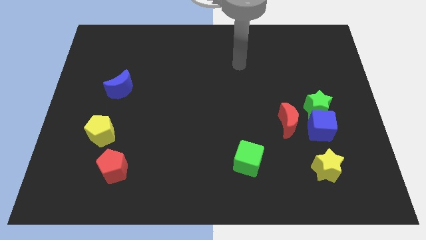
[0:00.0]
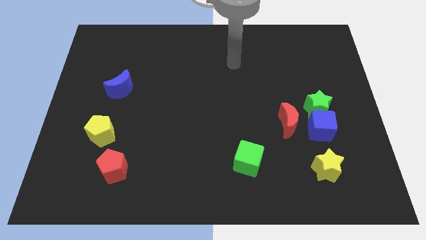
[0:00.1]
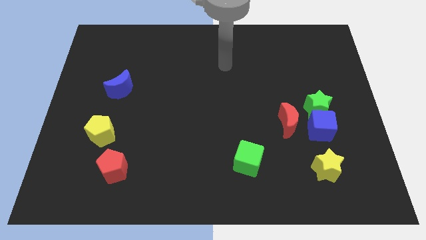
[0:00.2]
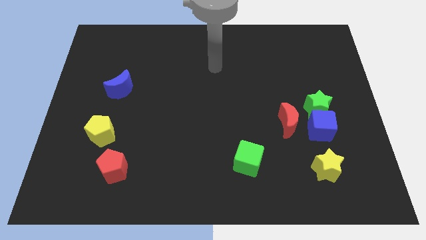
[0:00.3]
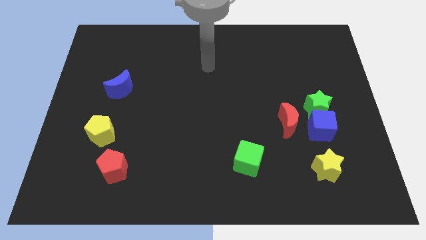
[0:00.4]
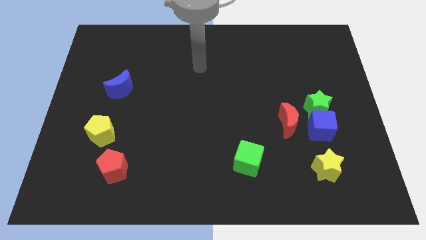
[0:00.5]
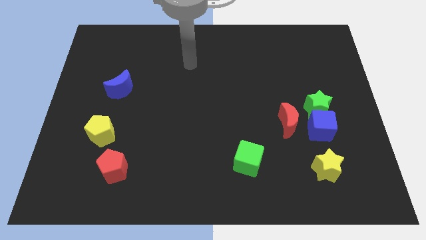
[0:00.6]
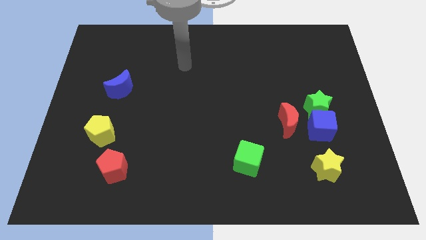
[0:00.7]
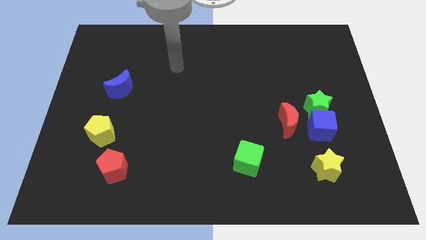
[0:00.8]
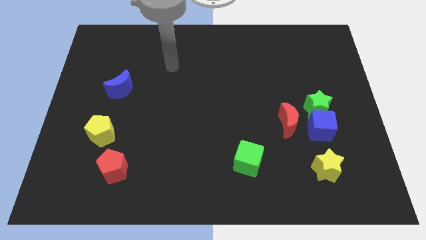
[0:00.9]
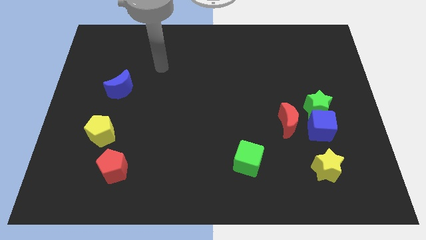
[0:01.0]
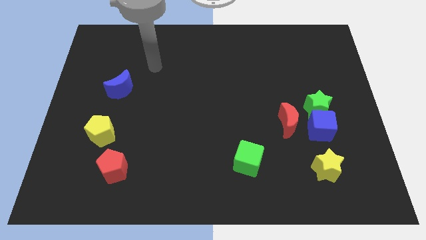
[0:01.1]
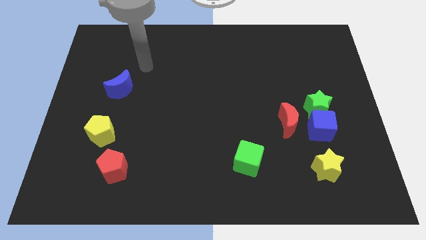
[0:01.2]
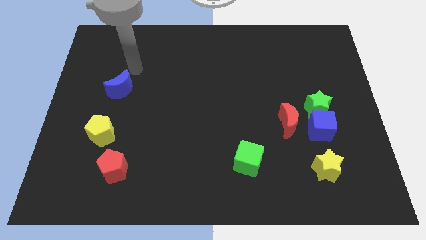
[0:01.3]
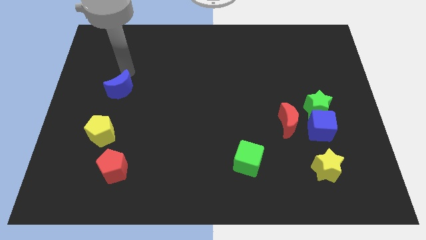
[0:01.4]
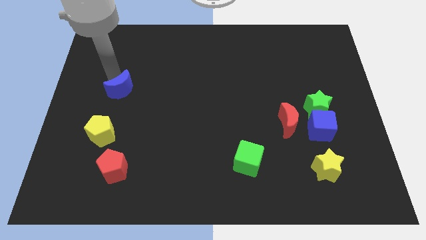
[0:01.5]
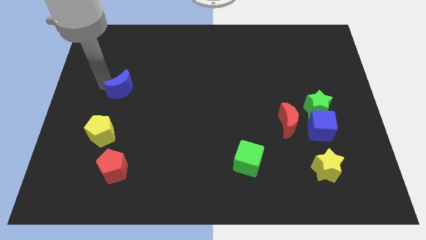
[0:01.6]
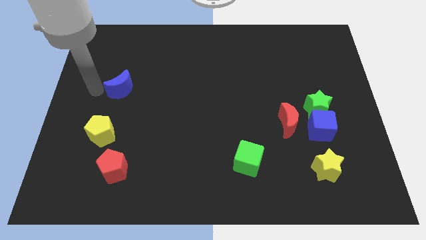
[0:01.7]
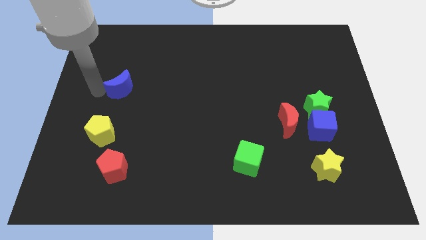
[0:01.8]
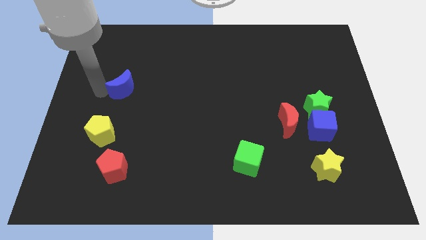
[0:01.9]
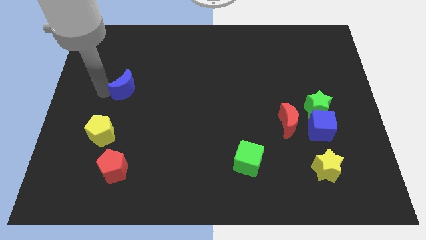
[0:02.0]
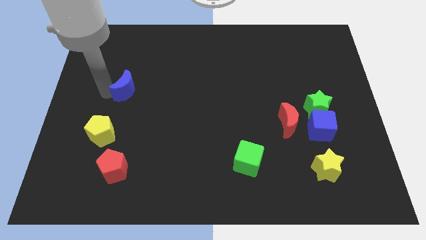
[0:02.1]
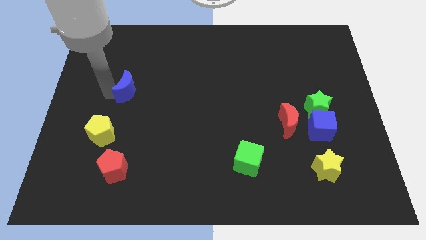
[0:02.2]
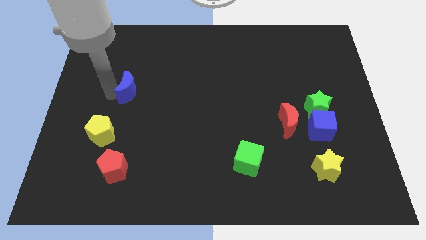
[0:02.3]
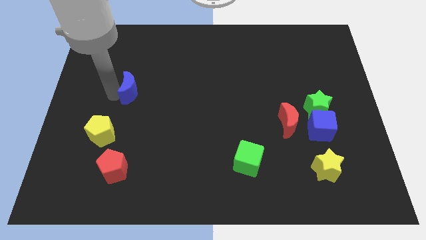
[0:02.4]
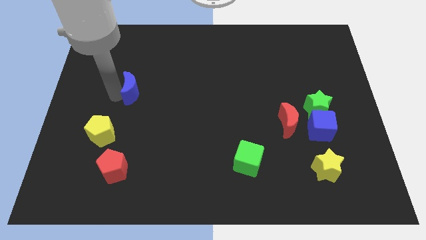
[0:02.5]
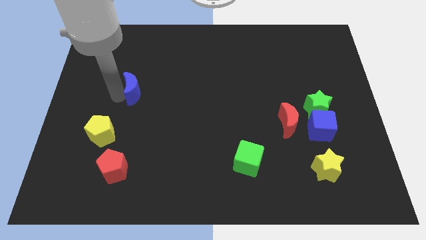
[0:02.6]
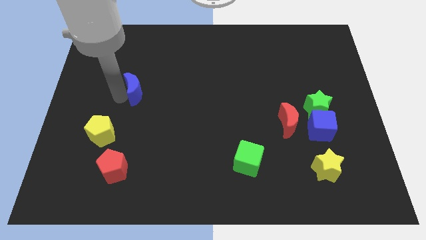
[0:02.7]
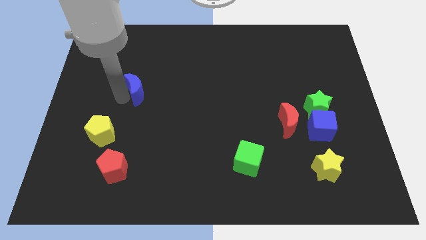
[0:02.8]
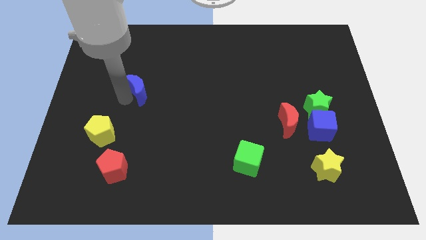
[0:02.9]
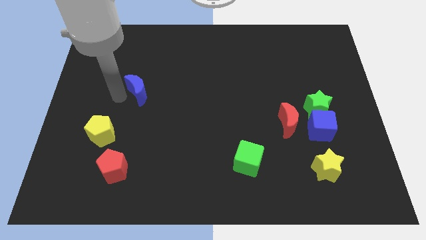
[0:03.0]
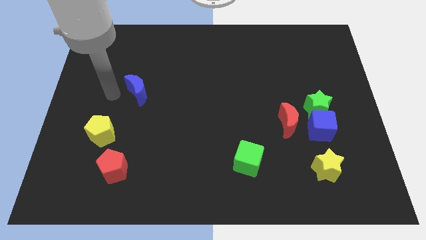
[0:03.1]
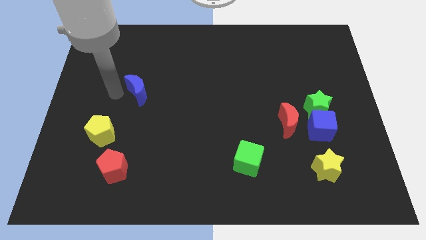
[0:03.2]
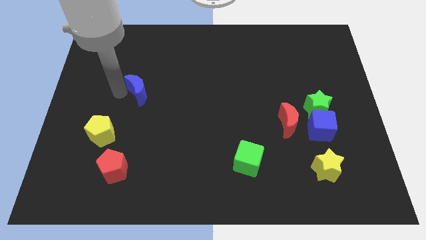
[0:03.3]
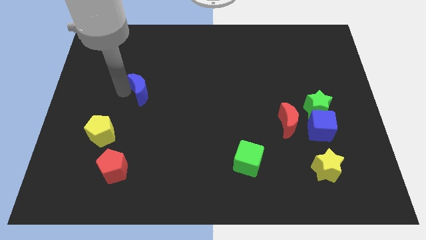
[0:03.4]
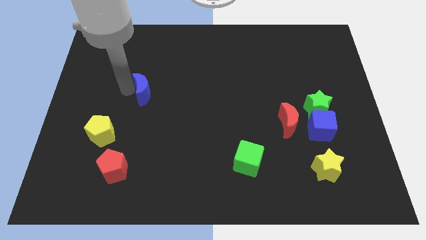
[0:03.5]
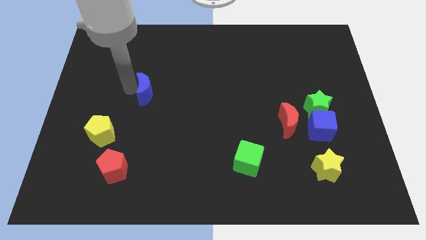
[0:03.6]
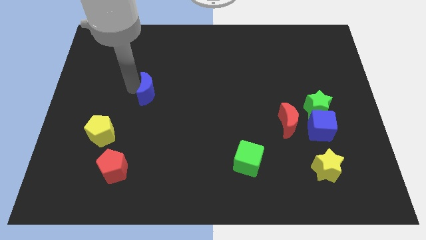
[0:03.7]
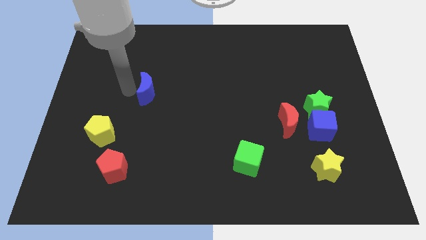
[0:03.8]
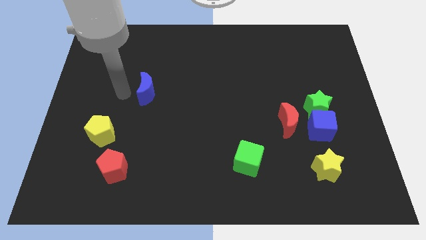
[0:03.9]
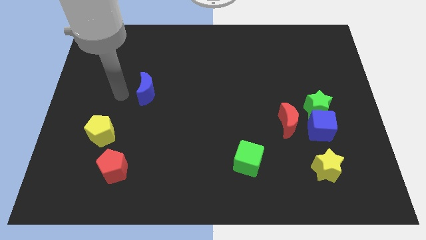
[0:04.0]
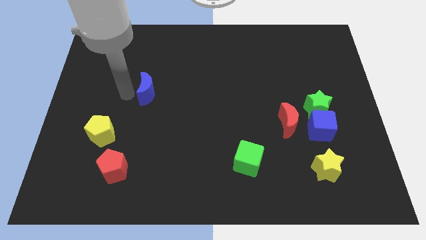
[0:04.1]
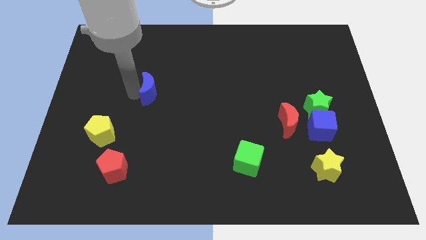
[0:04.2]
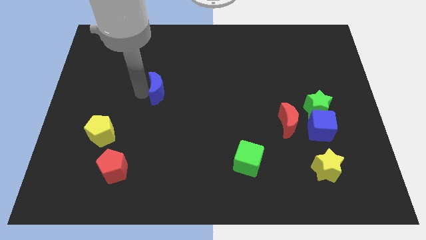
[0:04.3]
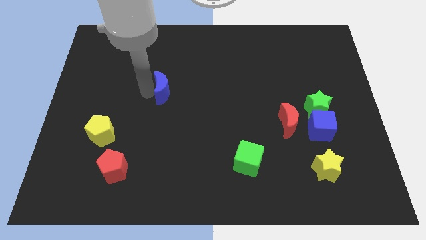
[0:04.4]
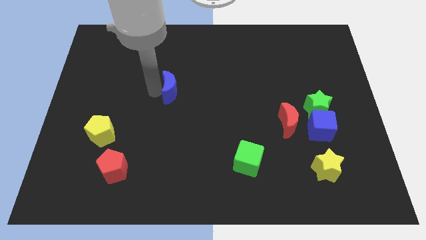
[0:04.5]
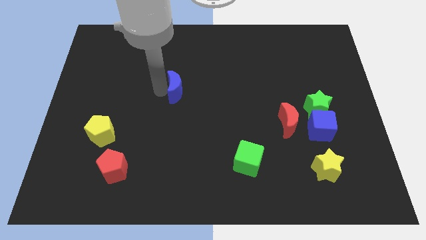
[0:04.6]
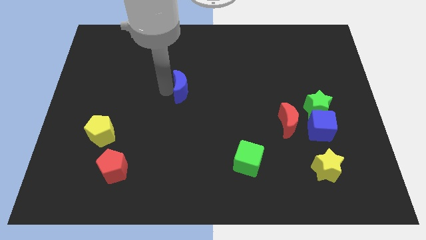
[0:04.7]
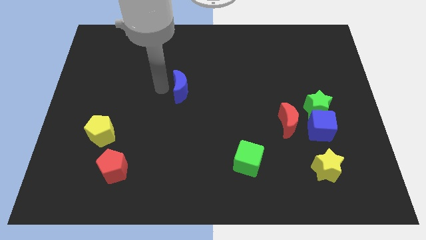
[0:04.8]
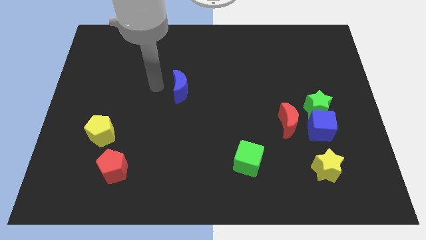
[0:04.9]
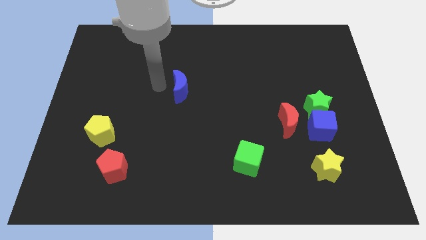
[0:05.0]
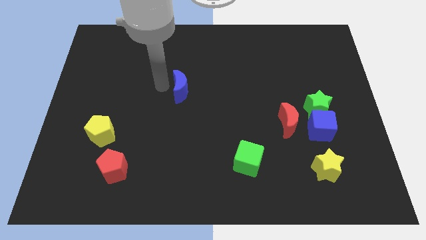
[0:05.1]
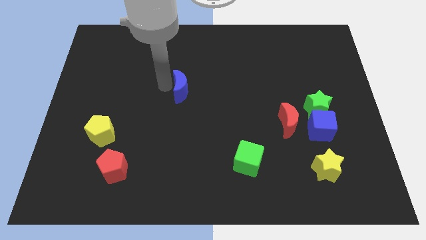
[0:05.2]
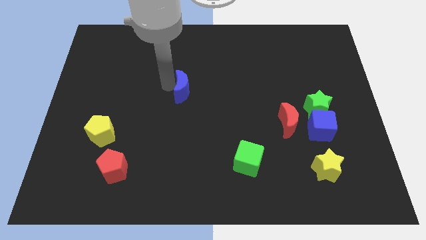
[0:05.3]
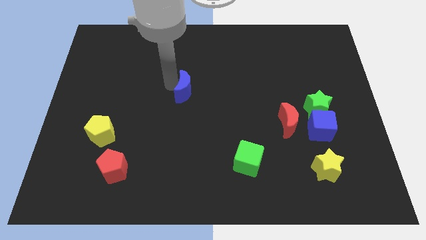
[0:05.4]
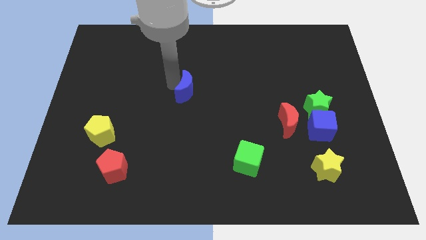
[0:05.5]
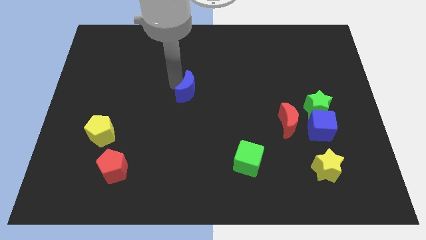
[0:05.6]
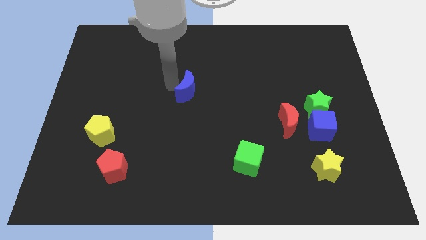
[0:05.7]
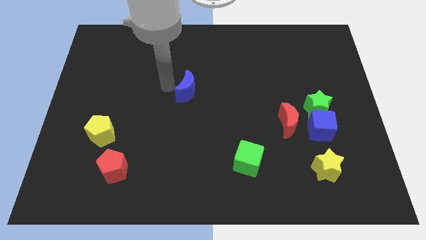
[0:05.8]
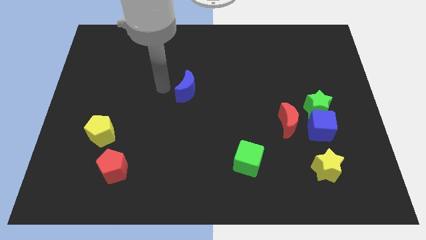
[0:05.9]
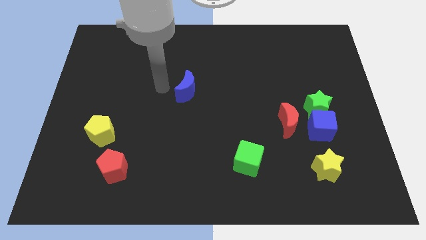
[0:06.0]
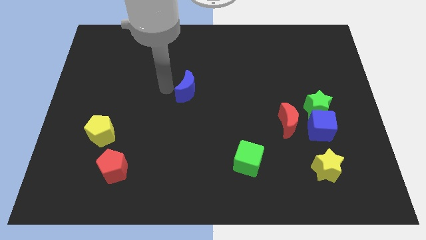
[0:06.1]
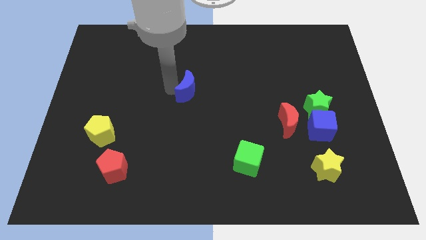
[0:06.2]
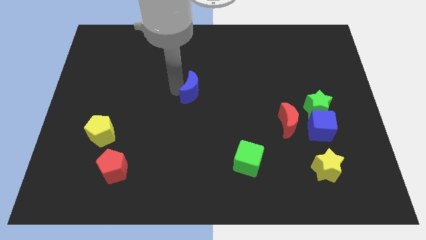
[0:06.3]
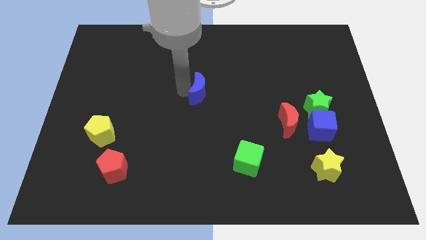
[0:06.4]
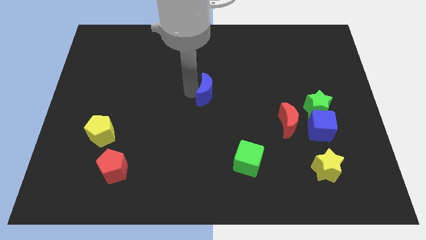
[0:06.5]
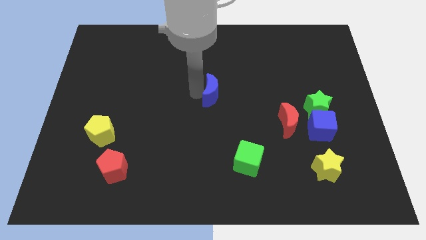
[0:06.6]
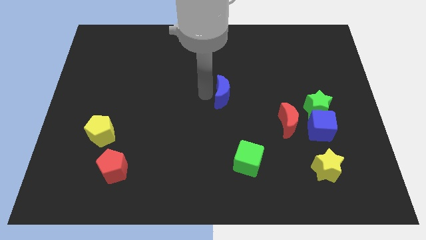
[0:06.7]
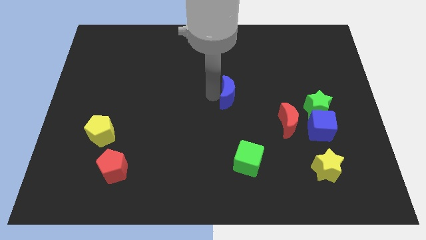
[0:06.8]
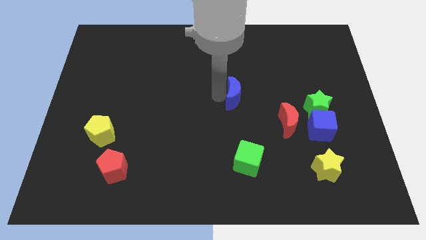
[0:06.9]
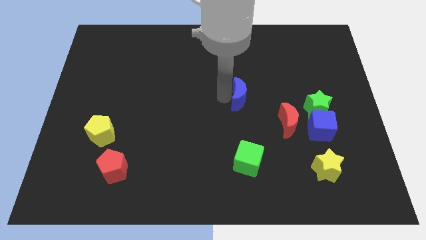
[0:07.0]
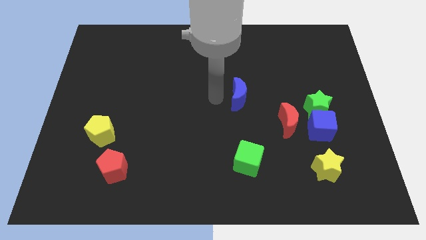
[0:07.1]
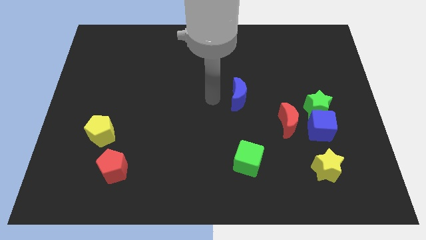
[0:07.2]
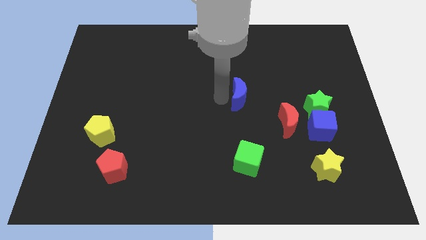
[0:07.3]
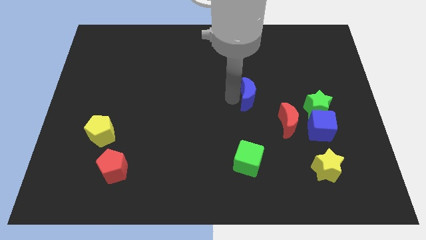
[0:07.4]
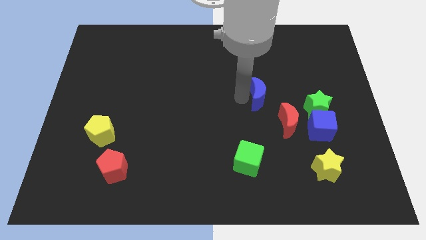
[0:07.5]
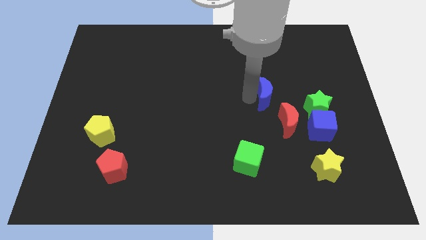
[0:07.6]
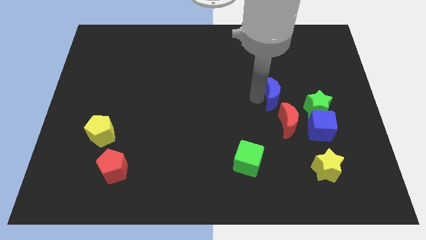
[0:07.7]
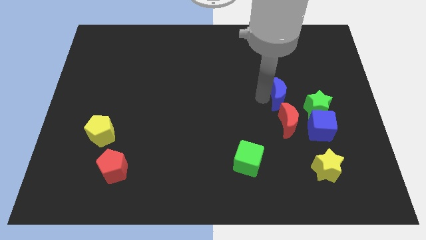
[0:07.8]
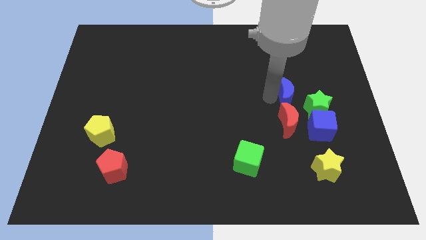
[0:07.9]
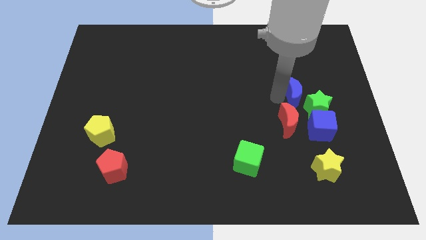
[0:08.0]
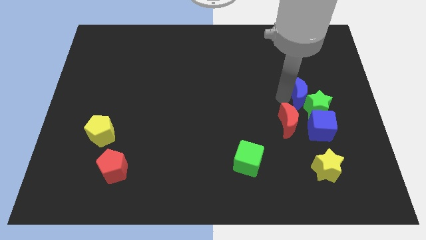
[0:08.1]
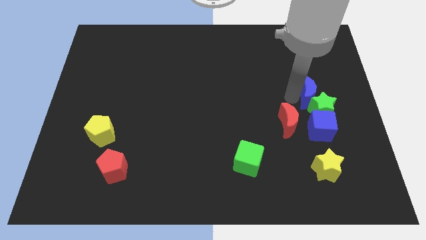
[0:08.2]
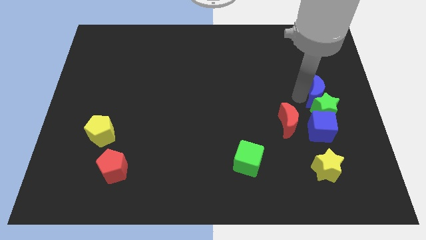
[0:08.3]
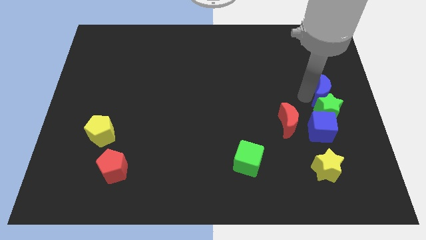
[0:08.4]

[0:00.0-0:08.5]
move the blue moon to the right side
